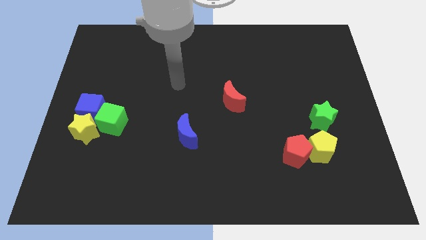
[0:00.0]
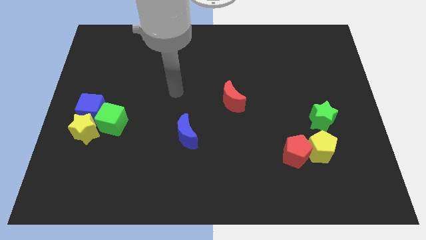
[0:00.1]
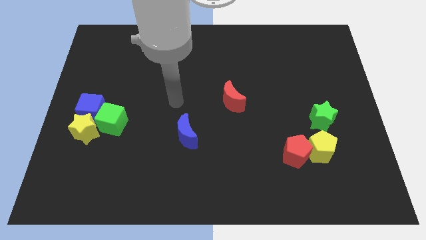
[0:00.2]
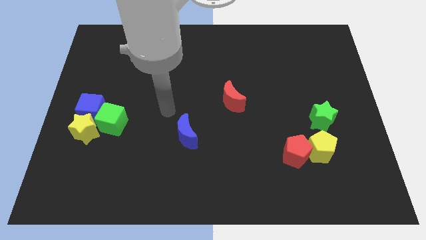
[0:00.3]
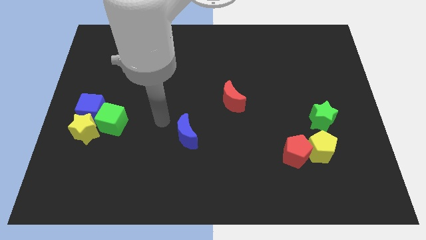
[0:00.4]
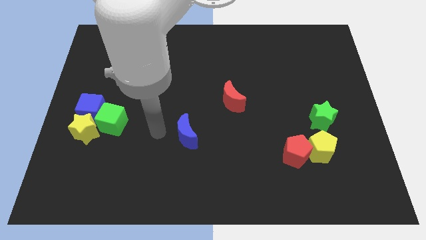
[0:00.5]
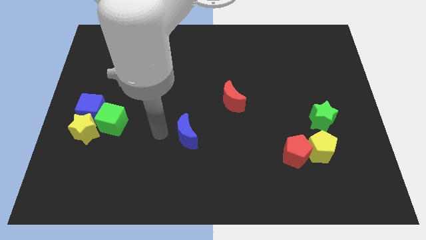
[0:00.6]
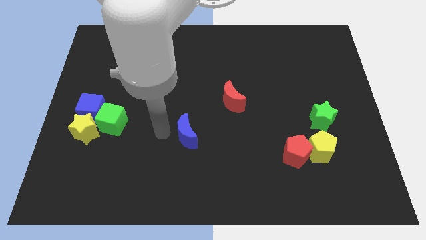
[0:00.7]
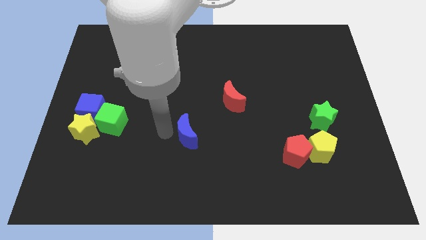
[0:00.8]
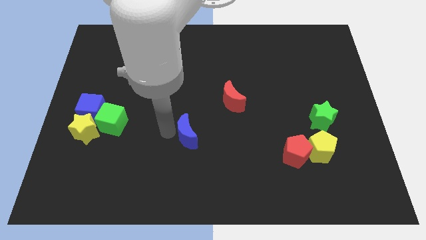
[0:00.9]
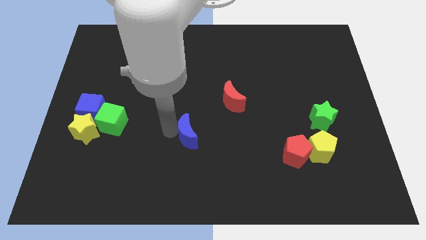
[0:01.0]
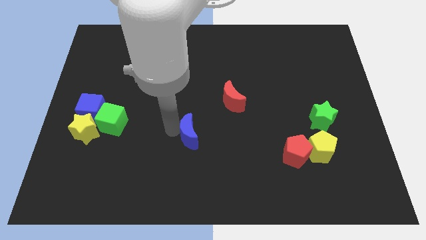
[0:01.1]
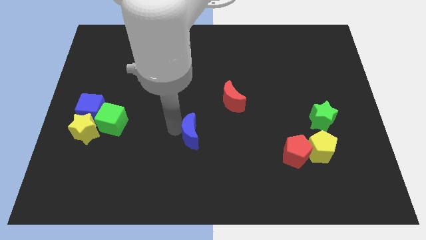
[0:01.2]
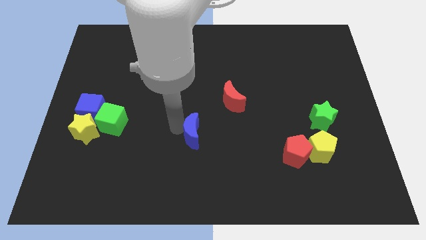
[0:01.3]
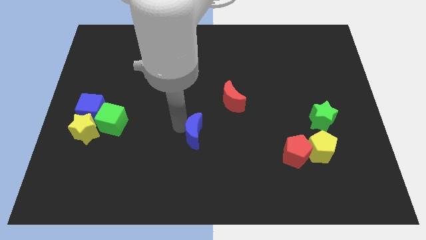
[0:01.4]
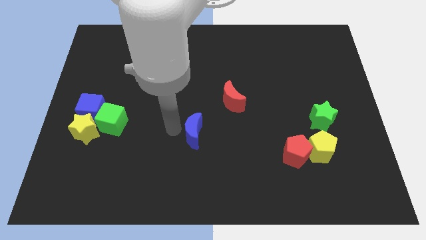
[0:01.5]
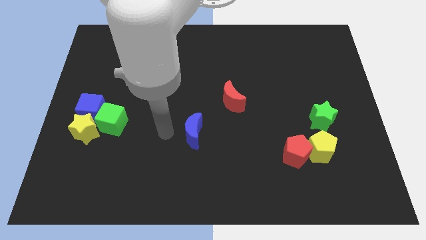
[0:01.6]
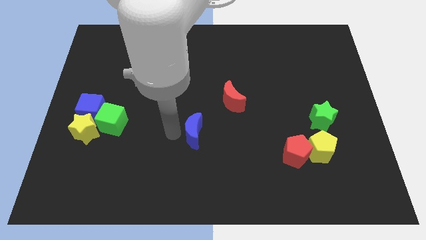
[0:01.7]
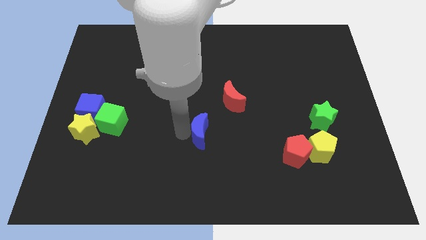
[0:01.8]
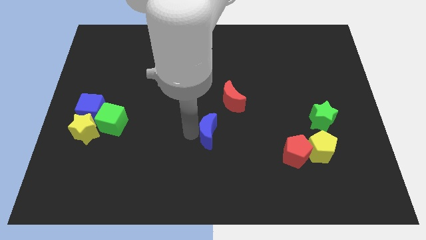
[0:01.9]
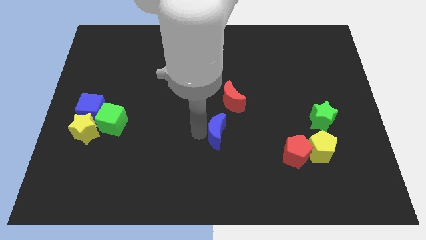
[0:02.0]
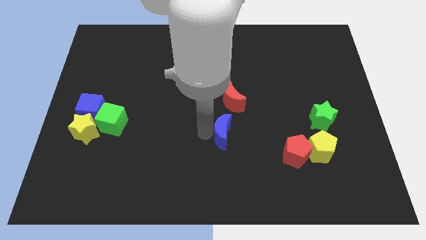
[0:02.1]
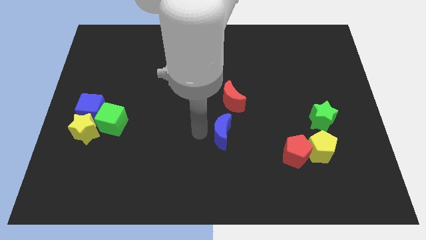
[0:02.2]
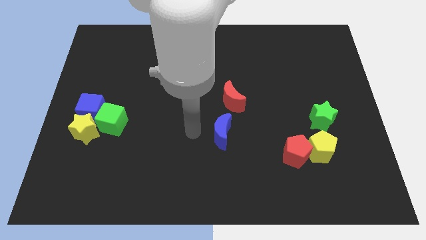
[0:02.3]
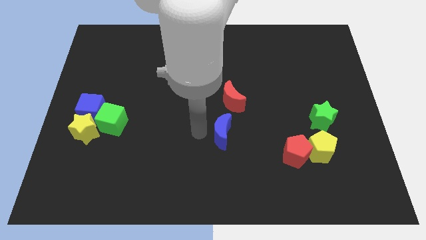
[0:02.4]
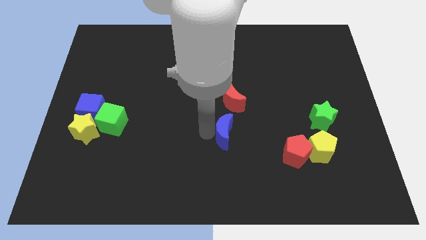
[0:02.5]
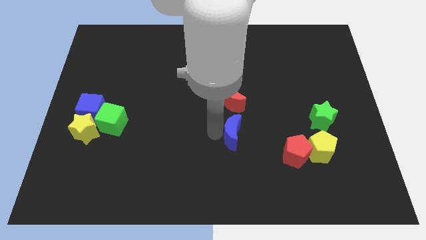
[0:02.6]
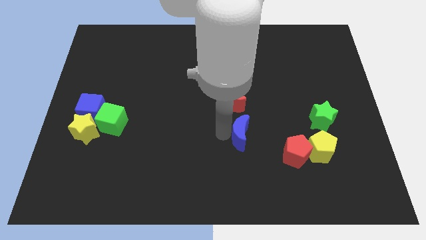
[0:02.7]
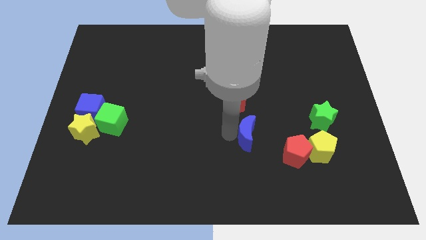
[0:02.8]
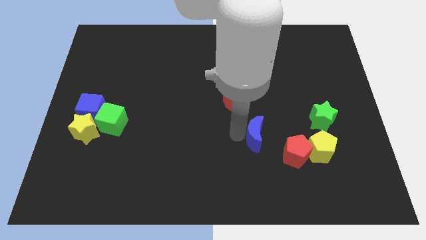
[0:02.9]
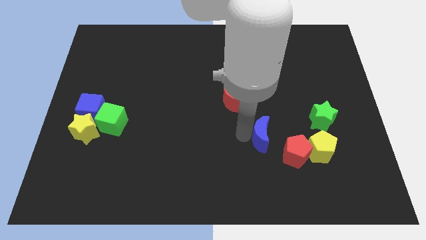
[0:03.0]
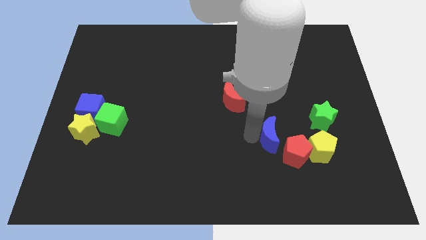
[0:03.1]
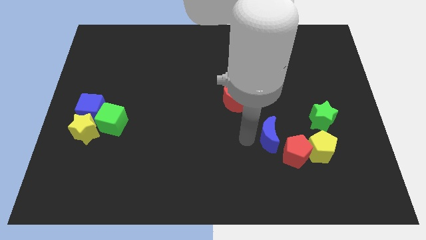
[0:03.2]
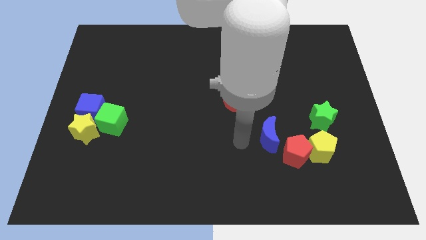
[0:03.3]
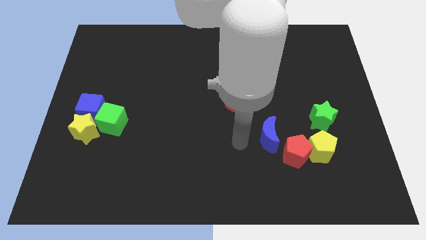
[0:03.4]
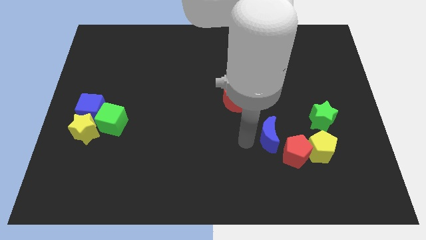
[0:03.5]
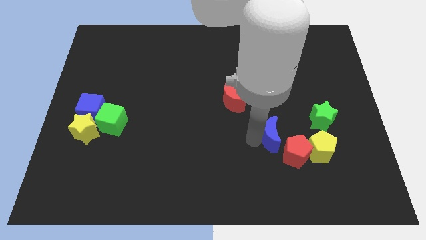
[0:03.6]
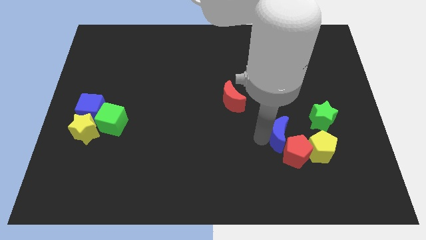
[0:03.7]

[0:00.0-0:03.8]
slide the blue moon to the right

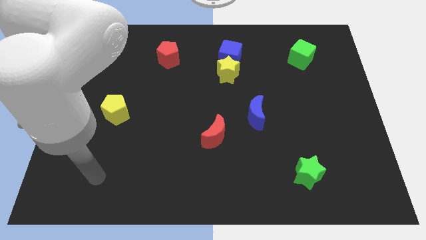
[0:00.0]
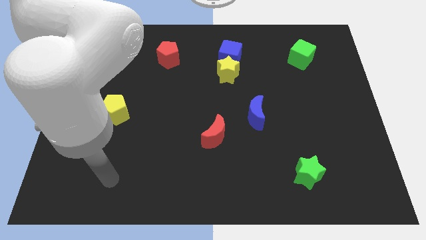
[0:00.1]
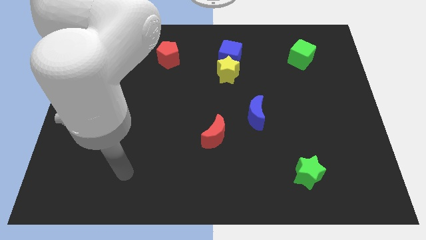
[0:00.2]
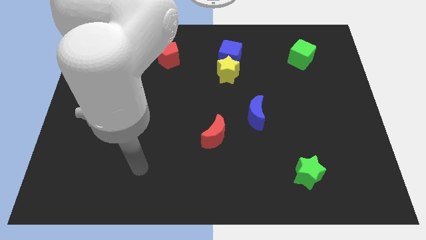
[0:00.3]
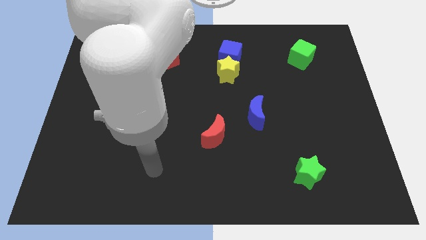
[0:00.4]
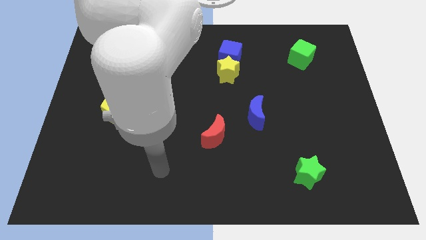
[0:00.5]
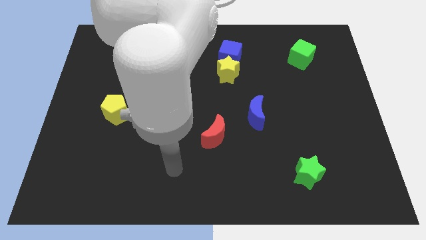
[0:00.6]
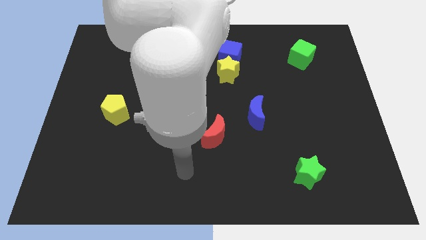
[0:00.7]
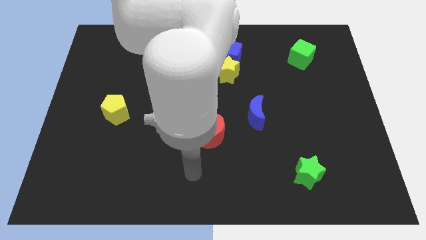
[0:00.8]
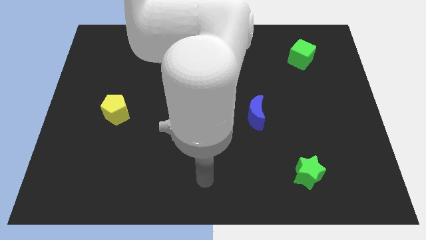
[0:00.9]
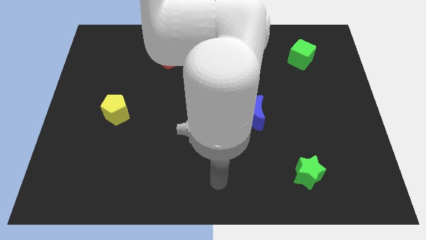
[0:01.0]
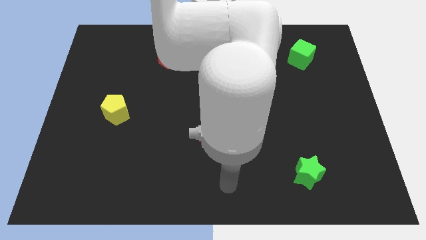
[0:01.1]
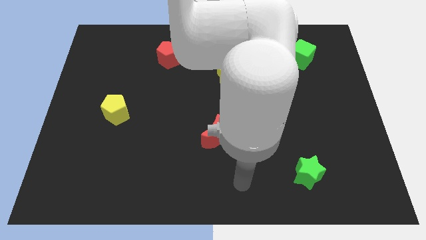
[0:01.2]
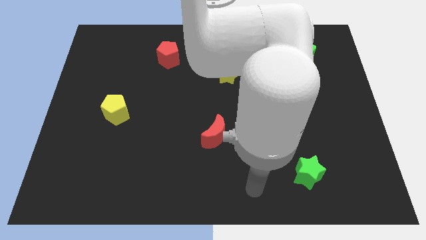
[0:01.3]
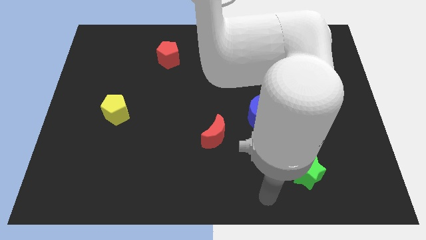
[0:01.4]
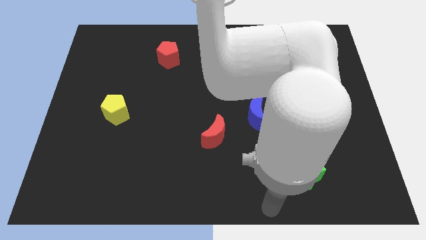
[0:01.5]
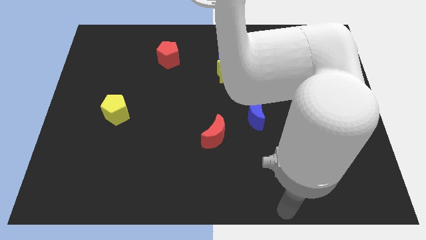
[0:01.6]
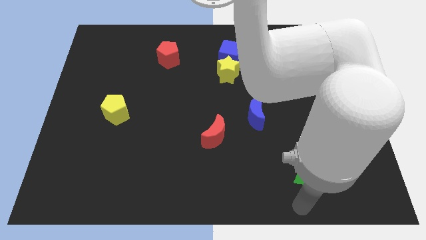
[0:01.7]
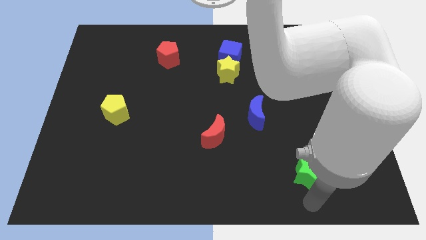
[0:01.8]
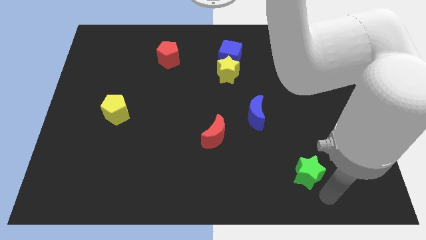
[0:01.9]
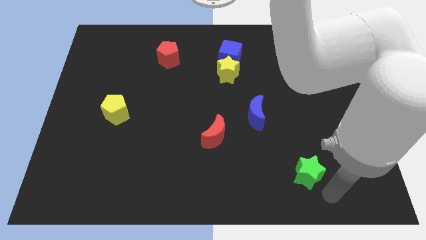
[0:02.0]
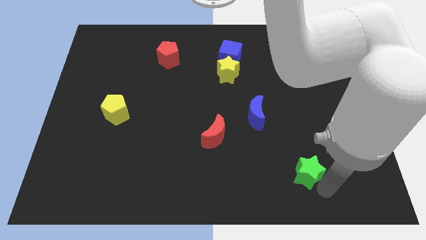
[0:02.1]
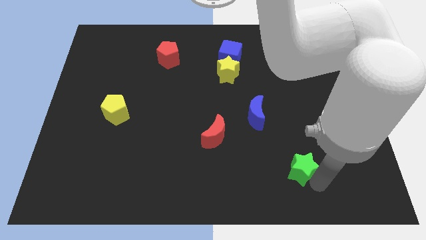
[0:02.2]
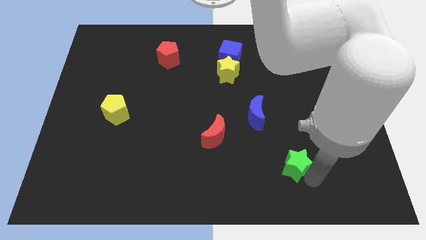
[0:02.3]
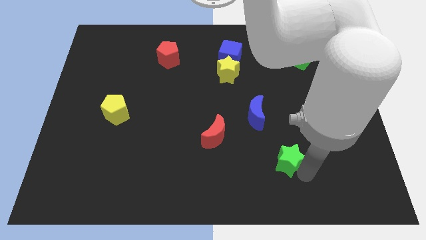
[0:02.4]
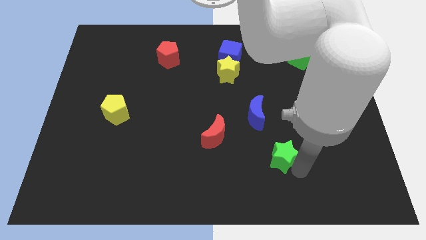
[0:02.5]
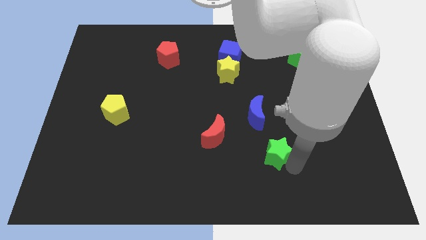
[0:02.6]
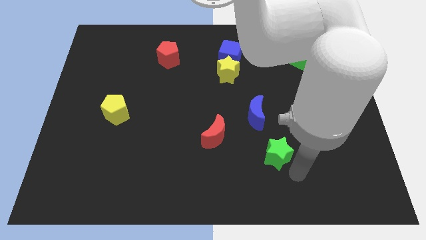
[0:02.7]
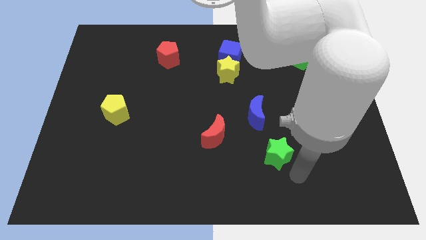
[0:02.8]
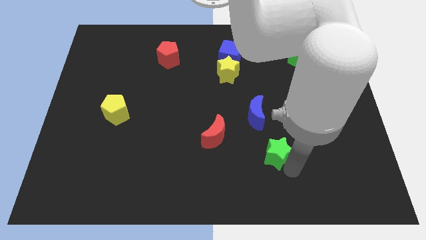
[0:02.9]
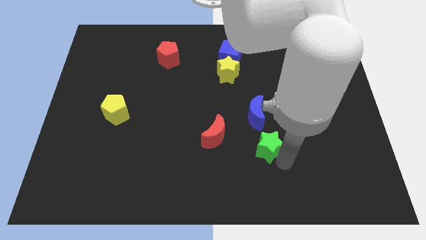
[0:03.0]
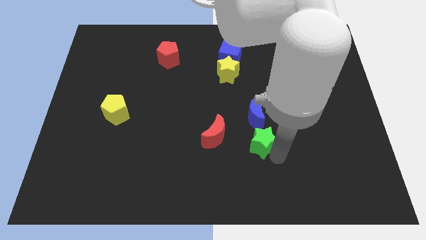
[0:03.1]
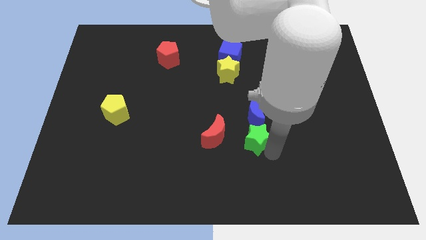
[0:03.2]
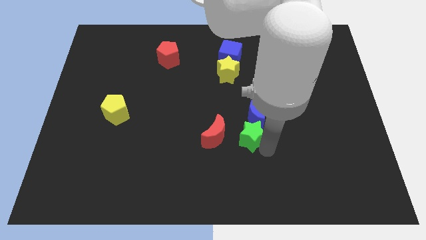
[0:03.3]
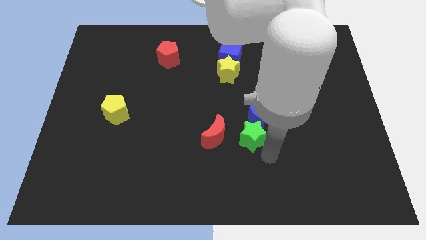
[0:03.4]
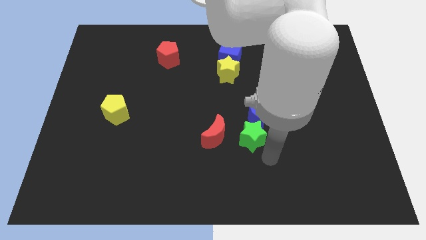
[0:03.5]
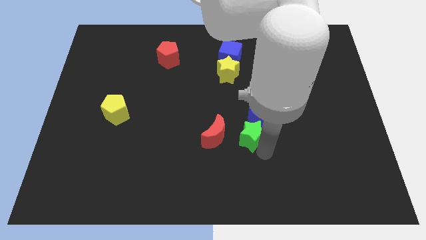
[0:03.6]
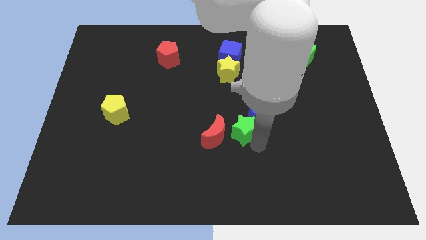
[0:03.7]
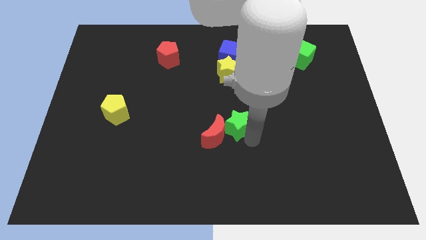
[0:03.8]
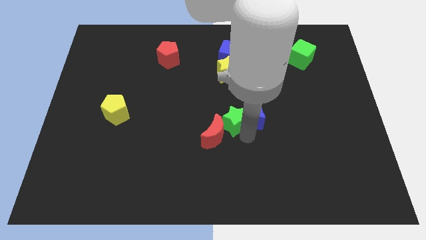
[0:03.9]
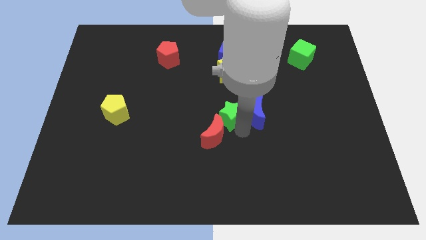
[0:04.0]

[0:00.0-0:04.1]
slide the green star up and to the left

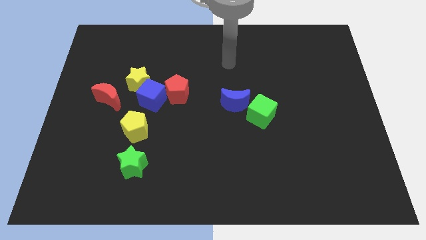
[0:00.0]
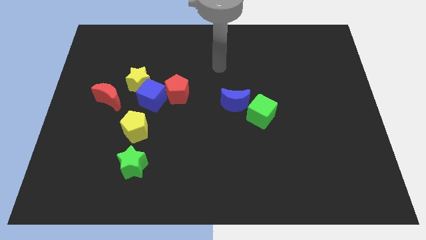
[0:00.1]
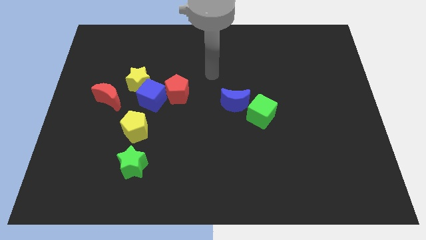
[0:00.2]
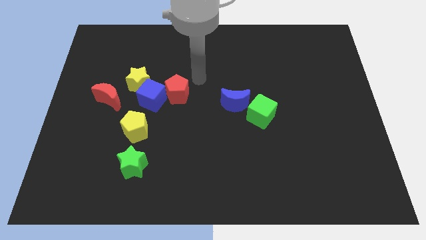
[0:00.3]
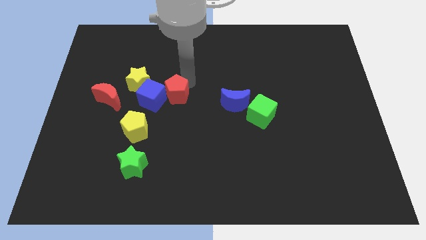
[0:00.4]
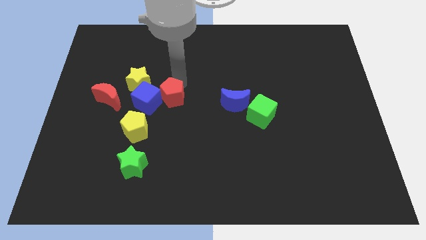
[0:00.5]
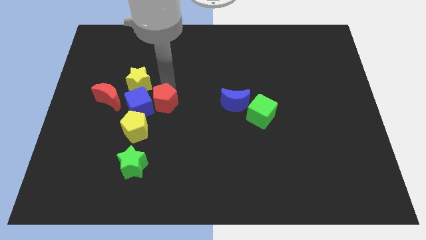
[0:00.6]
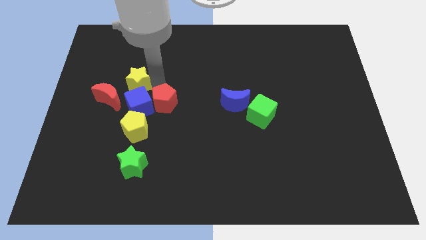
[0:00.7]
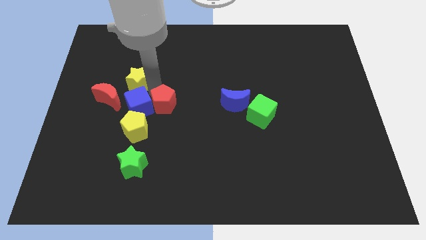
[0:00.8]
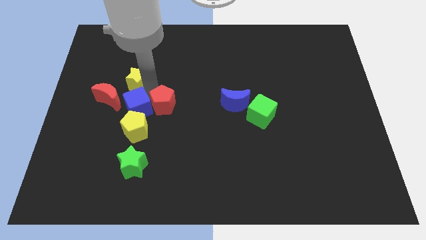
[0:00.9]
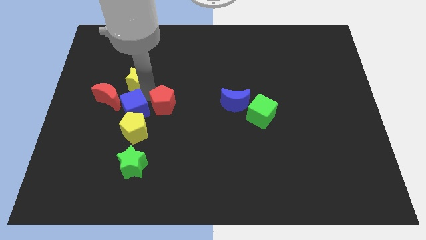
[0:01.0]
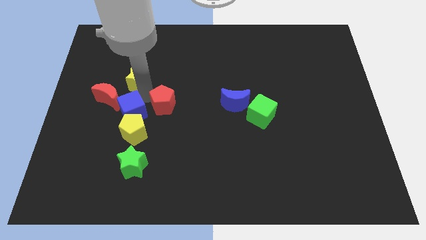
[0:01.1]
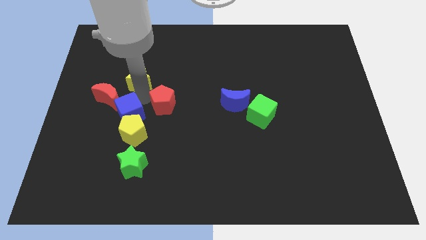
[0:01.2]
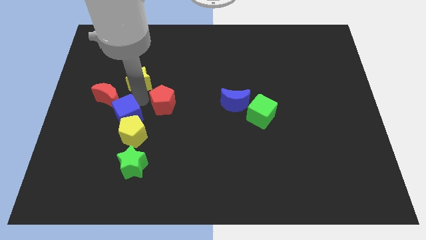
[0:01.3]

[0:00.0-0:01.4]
slightly slide the blue cube downwards and left diagonally
